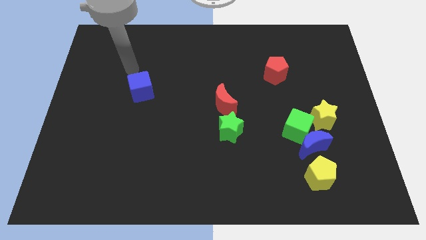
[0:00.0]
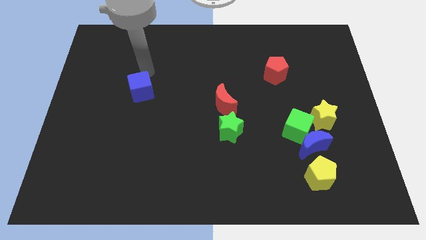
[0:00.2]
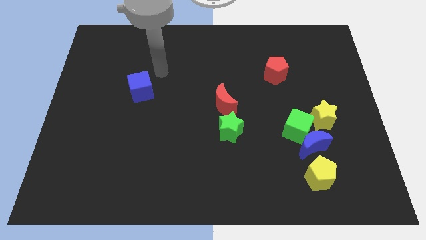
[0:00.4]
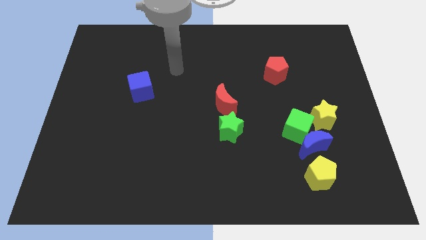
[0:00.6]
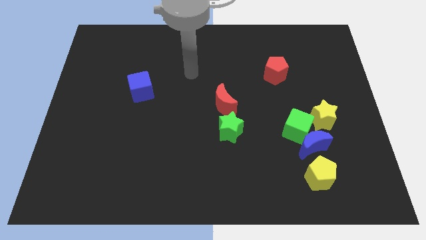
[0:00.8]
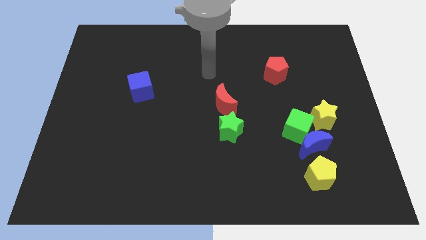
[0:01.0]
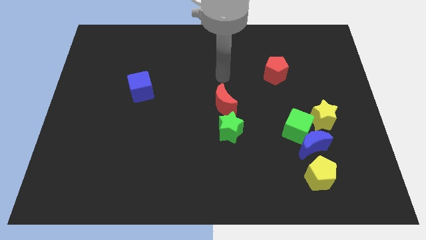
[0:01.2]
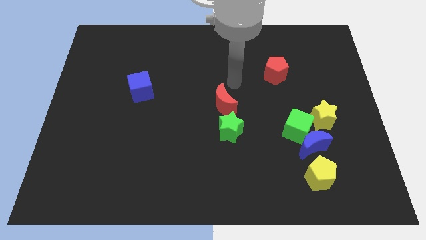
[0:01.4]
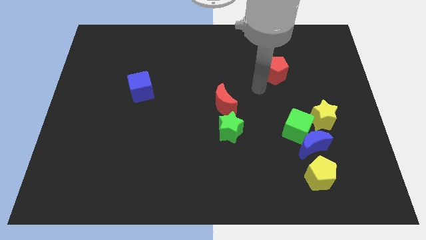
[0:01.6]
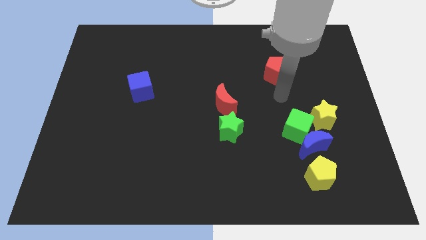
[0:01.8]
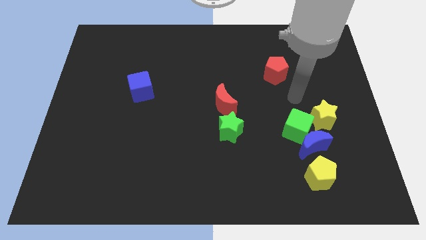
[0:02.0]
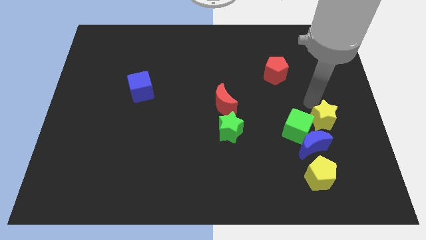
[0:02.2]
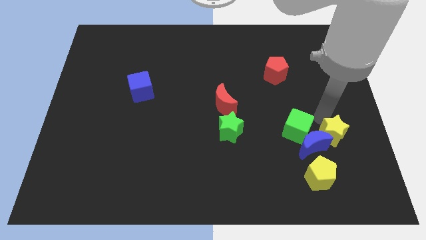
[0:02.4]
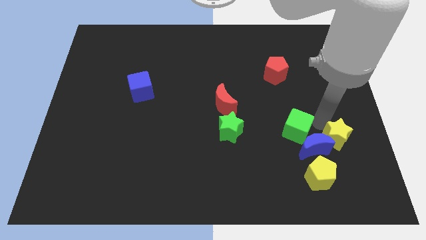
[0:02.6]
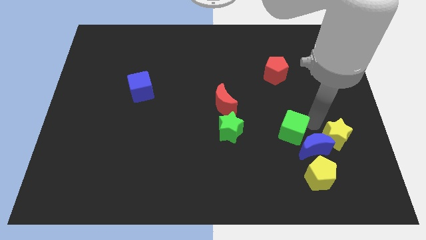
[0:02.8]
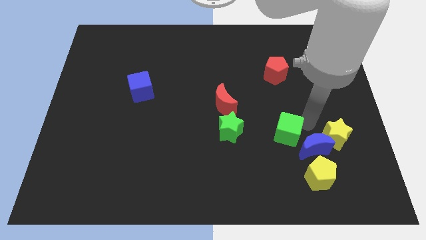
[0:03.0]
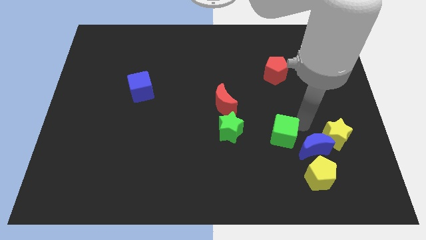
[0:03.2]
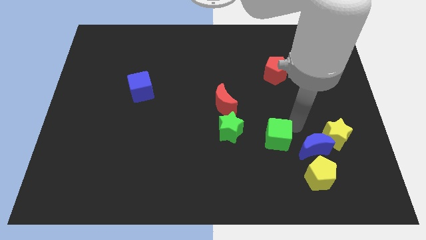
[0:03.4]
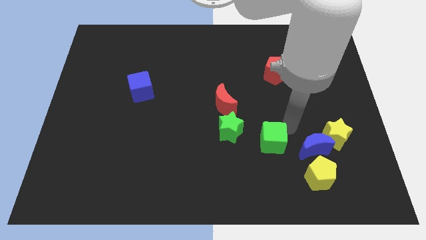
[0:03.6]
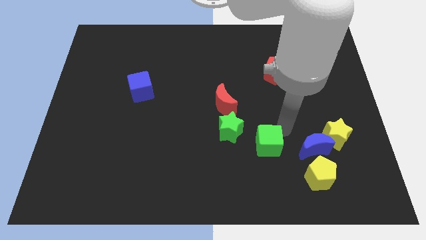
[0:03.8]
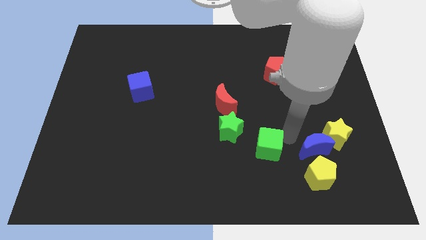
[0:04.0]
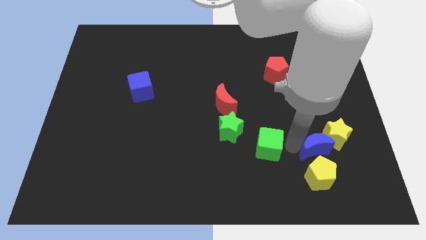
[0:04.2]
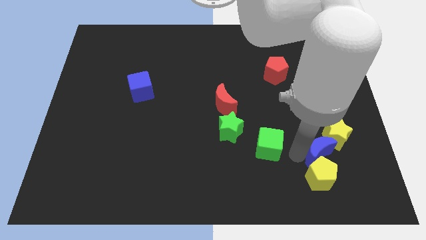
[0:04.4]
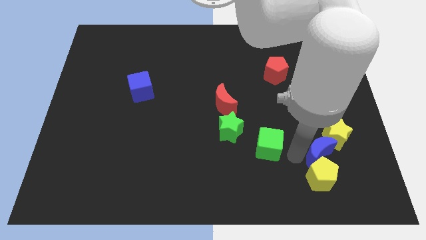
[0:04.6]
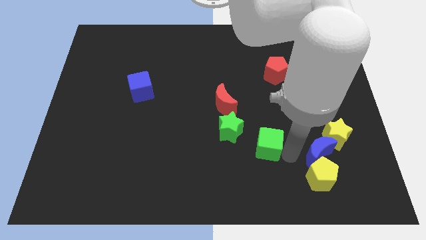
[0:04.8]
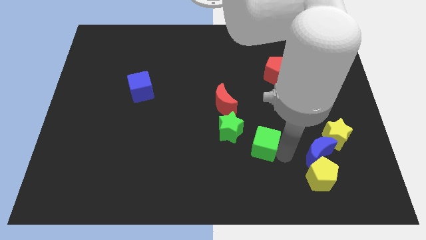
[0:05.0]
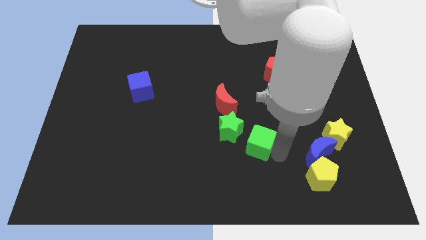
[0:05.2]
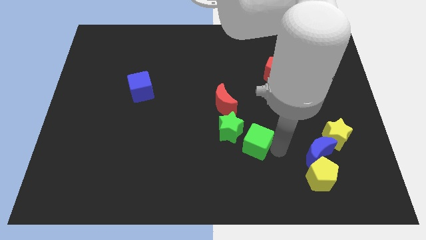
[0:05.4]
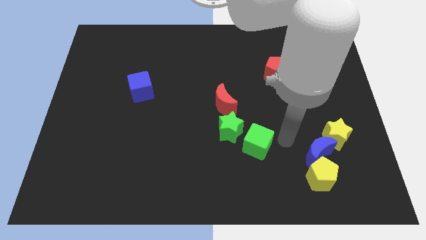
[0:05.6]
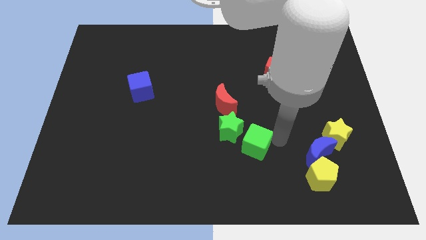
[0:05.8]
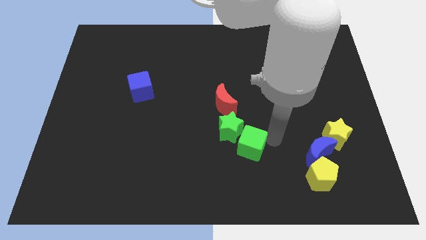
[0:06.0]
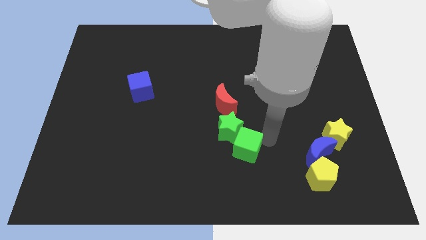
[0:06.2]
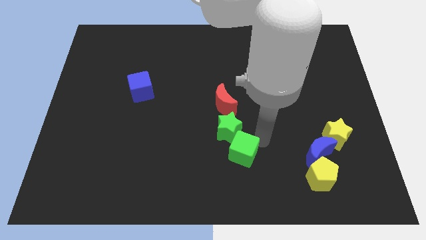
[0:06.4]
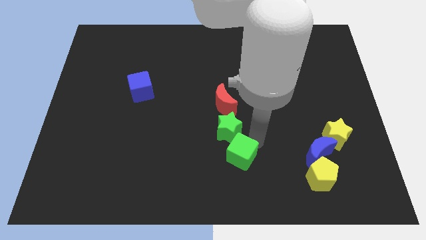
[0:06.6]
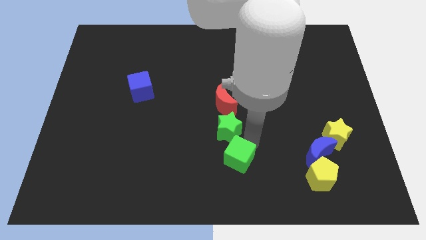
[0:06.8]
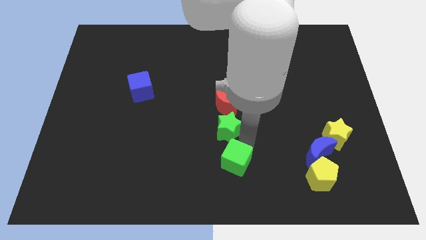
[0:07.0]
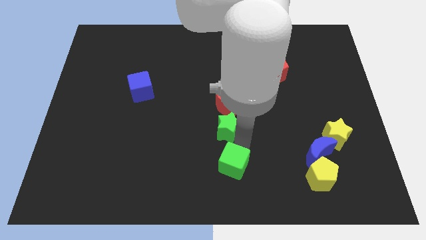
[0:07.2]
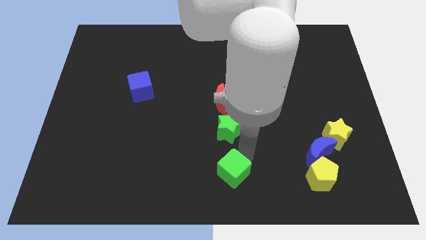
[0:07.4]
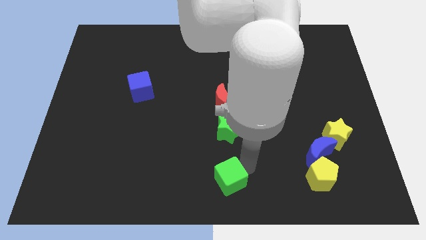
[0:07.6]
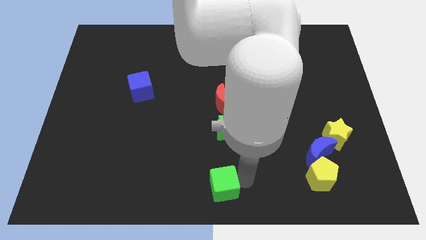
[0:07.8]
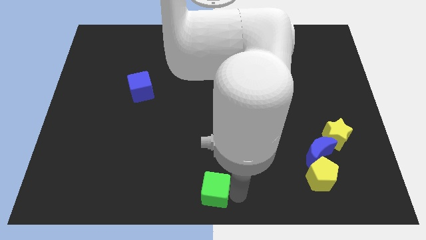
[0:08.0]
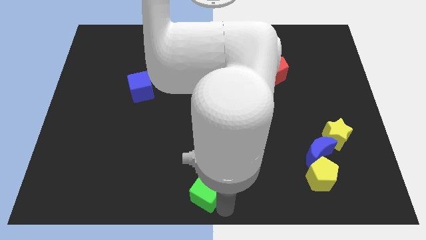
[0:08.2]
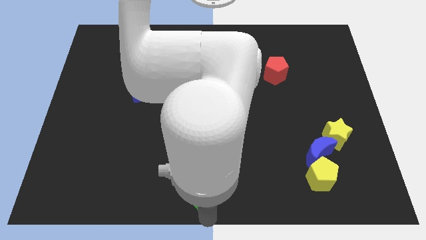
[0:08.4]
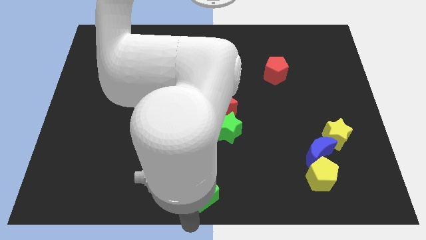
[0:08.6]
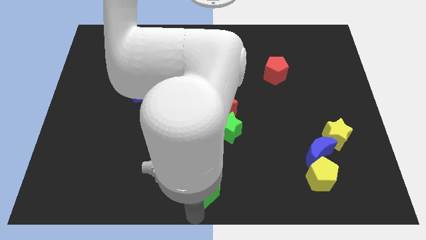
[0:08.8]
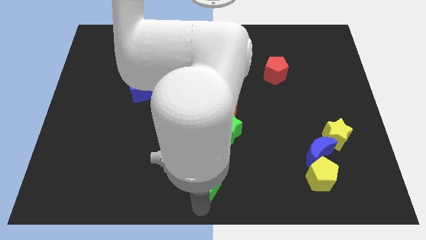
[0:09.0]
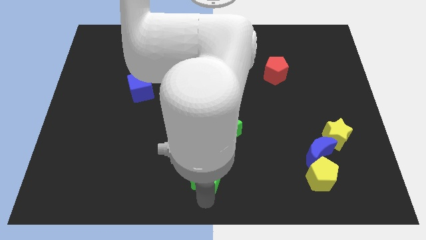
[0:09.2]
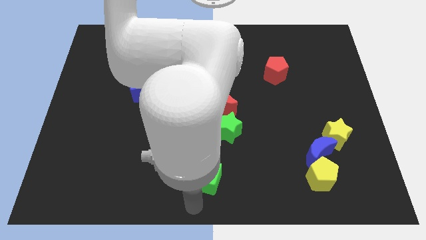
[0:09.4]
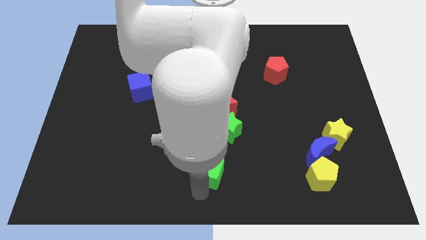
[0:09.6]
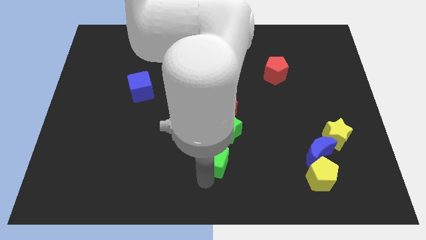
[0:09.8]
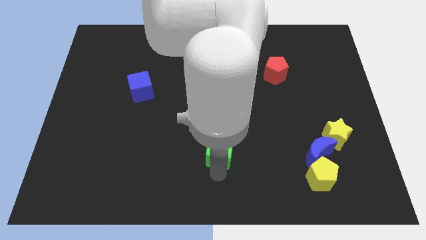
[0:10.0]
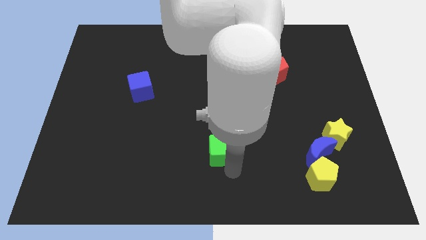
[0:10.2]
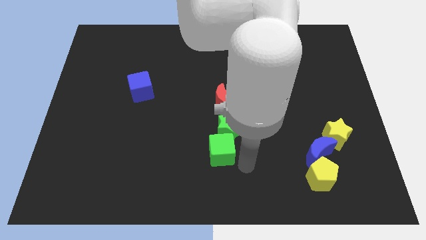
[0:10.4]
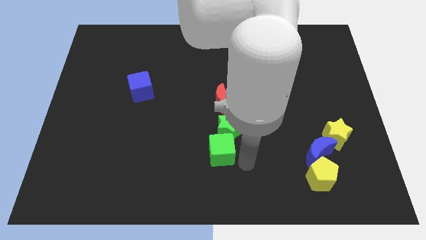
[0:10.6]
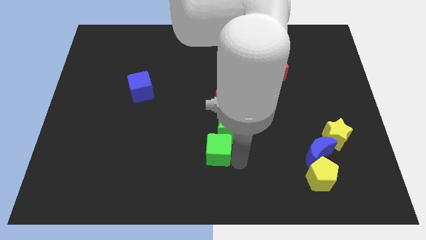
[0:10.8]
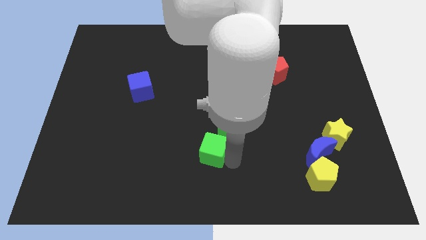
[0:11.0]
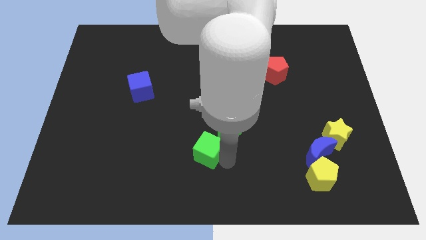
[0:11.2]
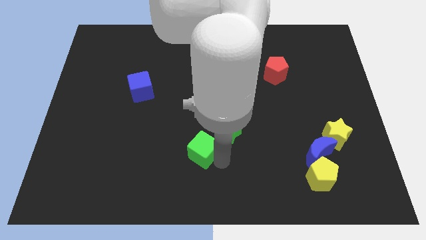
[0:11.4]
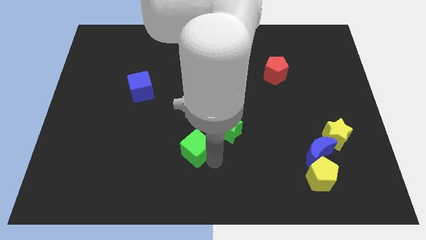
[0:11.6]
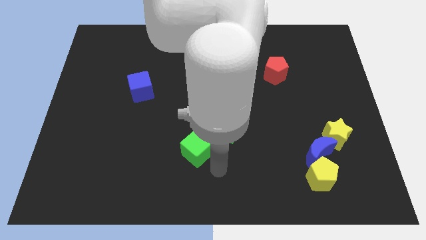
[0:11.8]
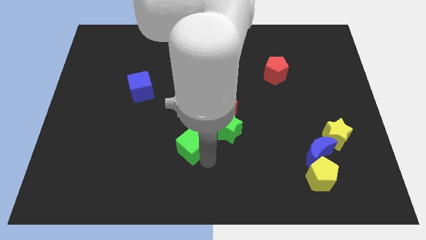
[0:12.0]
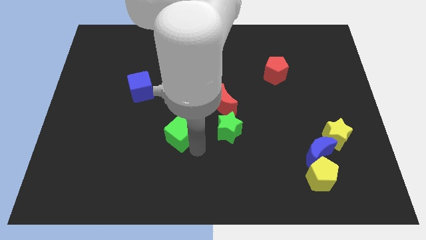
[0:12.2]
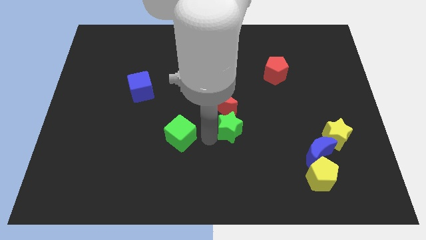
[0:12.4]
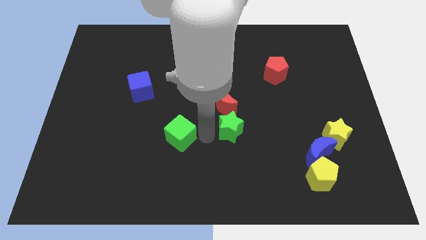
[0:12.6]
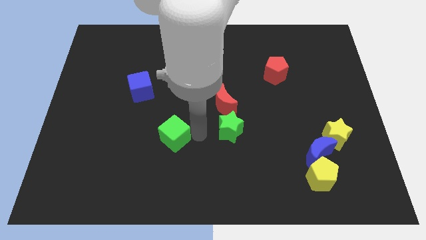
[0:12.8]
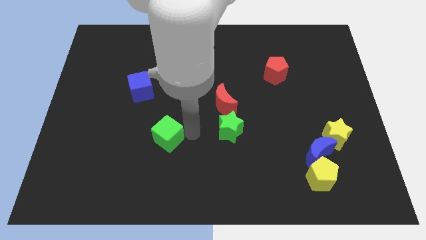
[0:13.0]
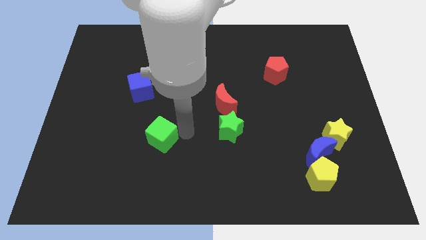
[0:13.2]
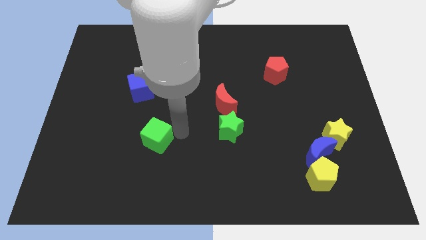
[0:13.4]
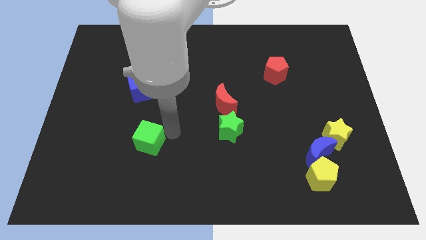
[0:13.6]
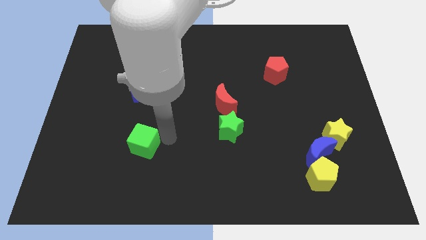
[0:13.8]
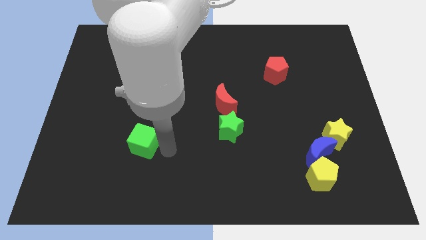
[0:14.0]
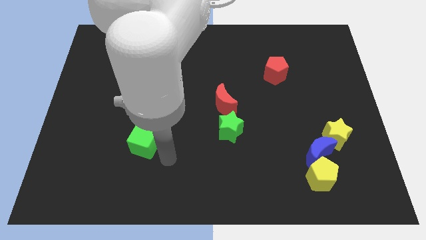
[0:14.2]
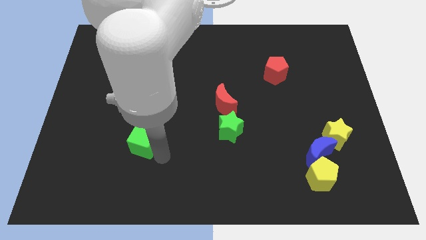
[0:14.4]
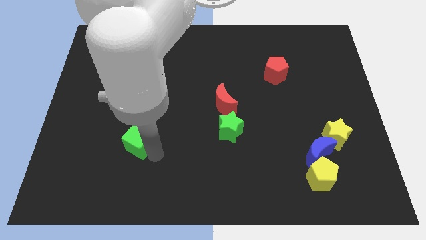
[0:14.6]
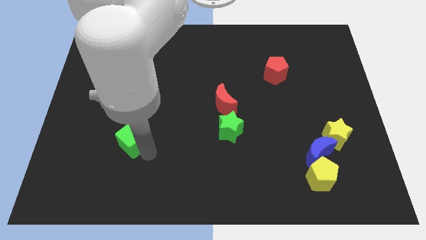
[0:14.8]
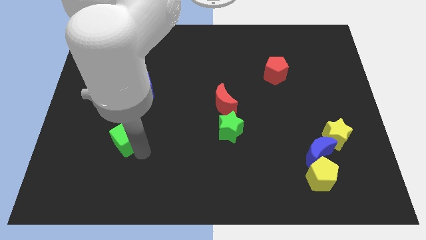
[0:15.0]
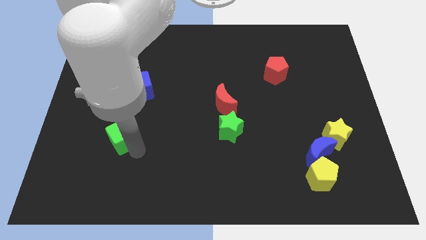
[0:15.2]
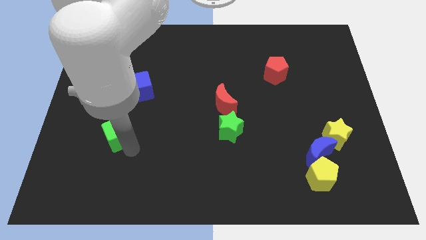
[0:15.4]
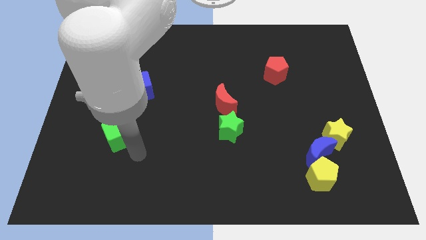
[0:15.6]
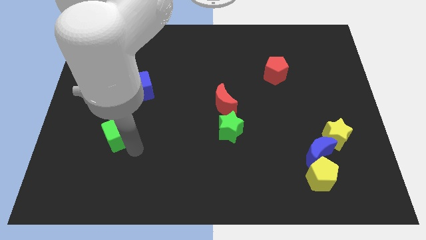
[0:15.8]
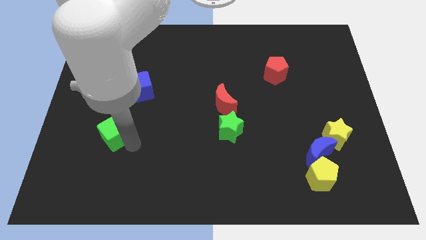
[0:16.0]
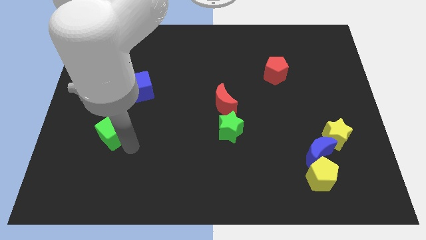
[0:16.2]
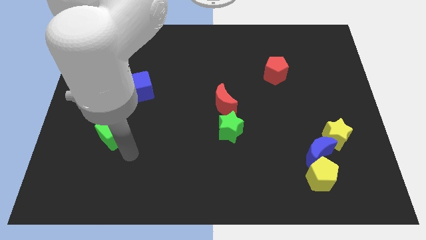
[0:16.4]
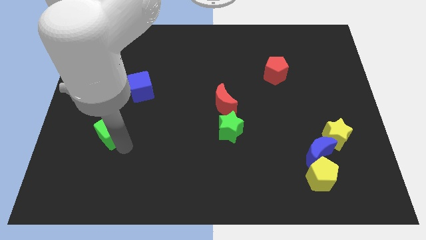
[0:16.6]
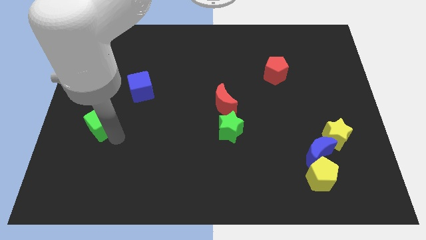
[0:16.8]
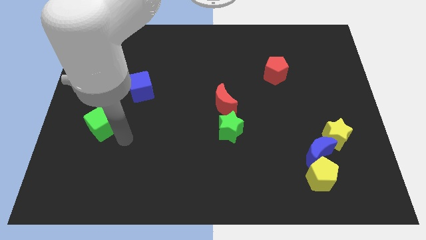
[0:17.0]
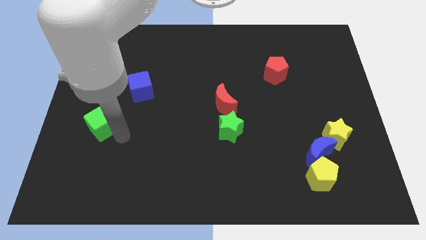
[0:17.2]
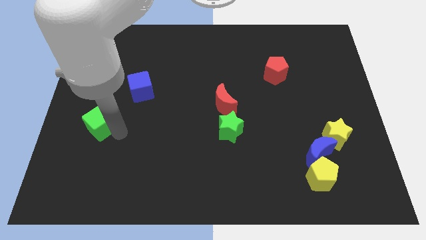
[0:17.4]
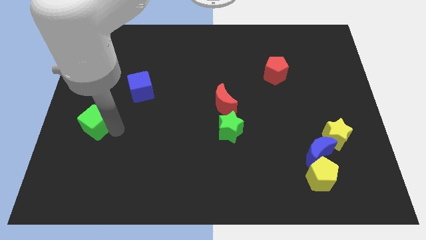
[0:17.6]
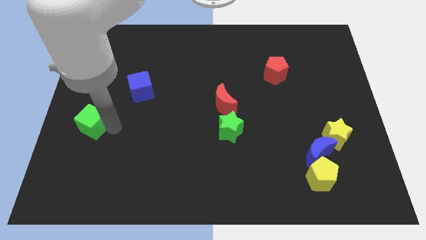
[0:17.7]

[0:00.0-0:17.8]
slide the green cube to the left side
